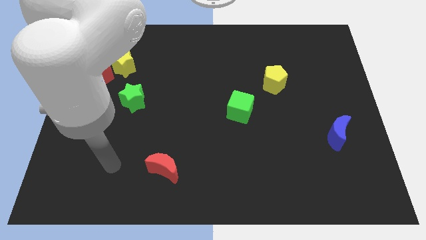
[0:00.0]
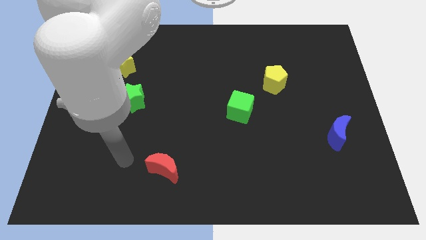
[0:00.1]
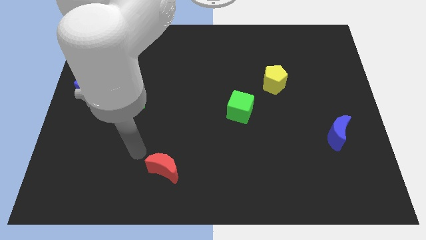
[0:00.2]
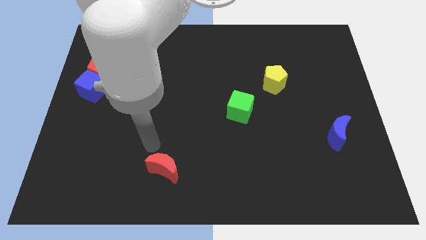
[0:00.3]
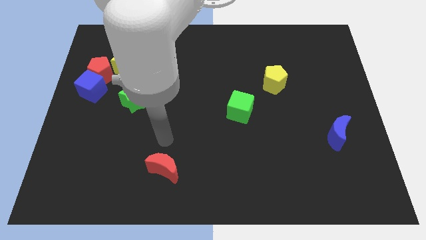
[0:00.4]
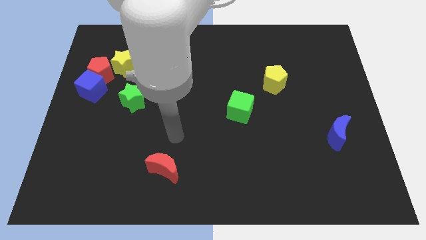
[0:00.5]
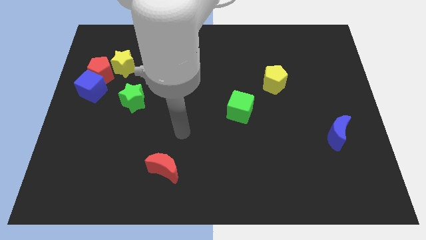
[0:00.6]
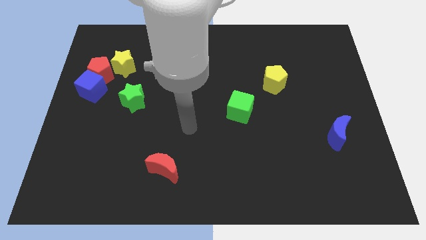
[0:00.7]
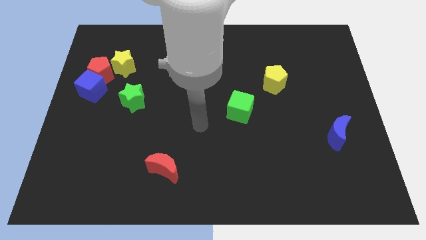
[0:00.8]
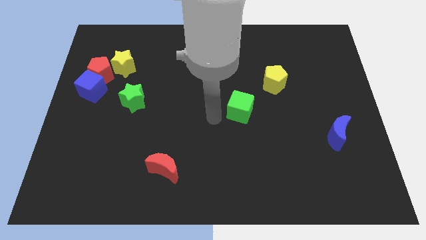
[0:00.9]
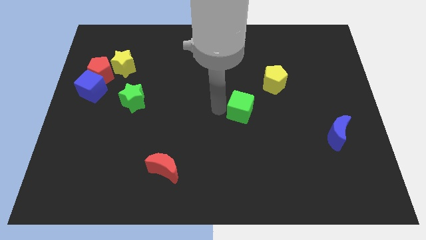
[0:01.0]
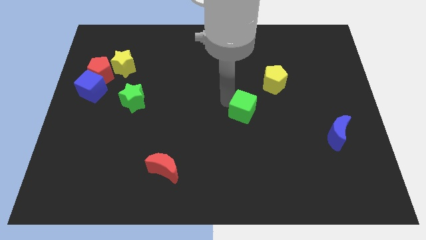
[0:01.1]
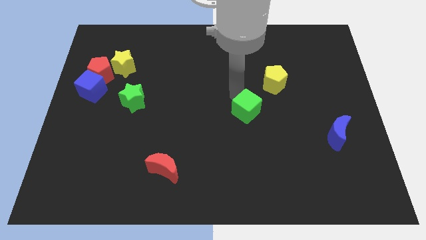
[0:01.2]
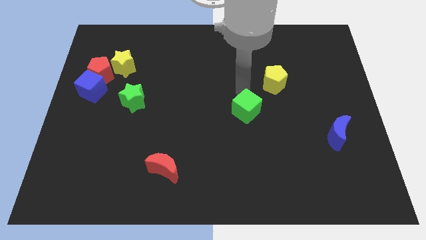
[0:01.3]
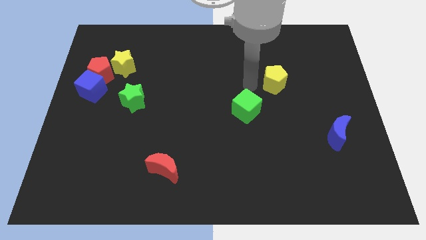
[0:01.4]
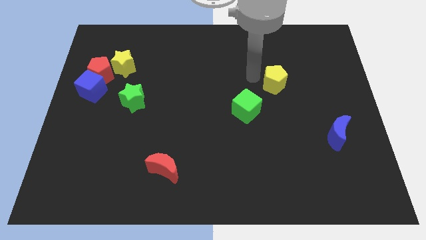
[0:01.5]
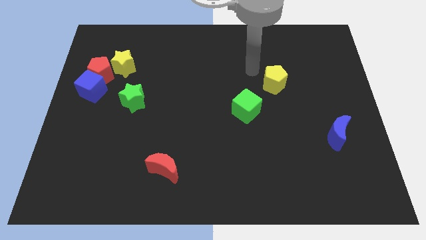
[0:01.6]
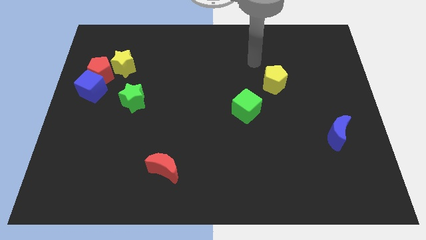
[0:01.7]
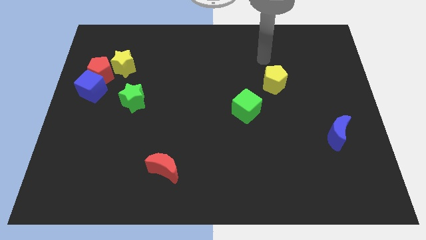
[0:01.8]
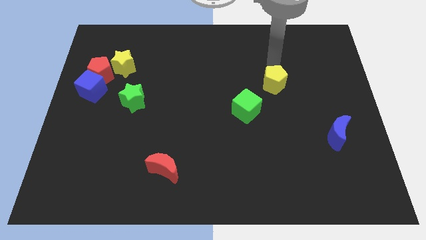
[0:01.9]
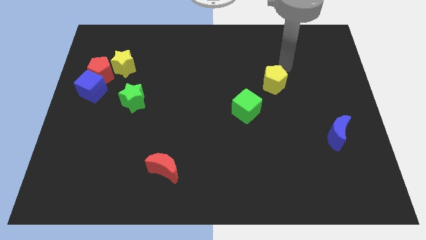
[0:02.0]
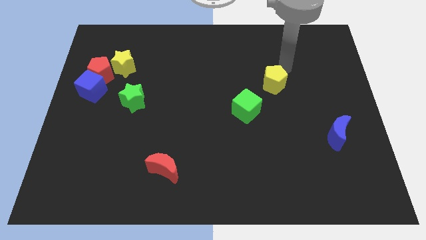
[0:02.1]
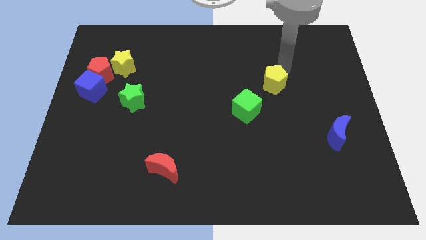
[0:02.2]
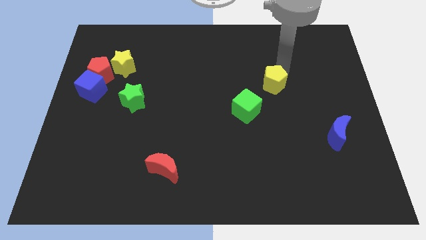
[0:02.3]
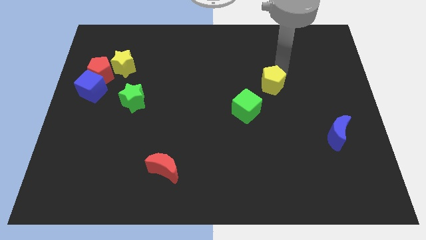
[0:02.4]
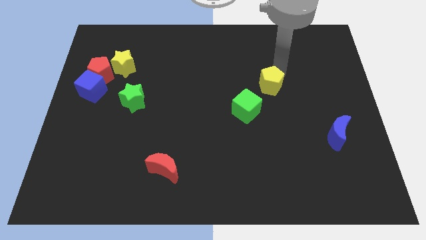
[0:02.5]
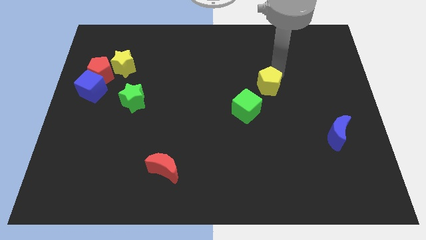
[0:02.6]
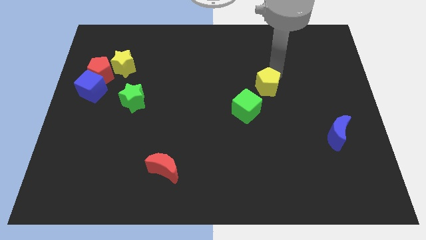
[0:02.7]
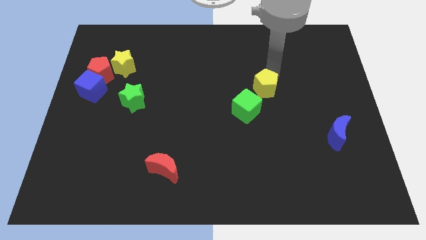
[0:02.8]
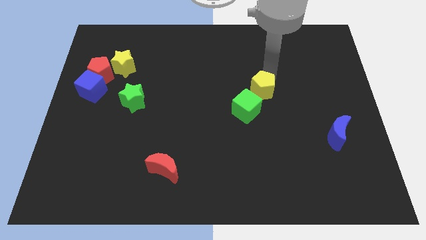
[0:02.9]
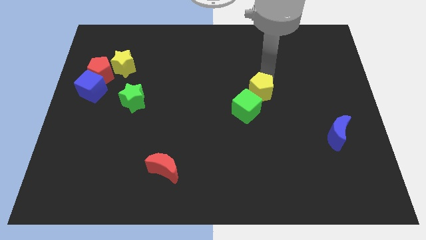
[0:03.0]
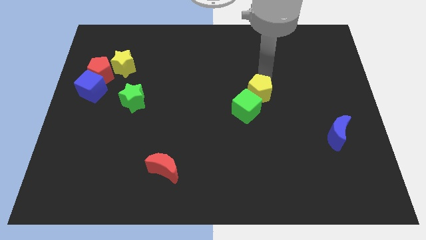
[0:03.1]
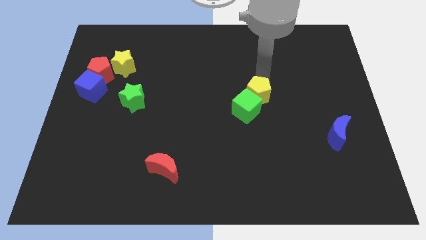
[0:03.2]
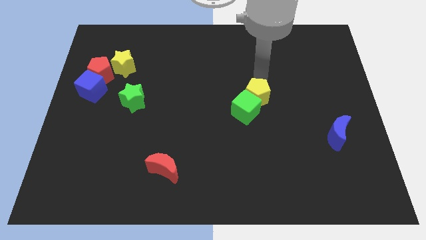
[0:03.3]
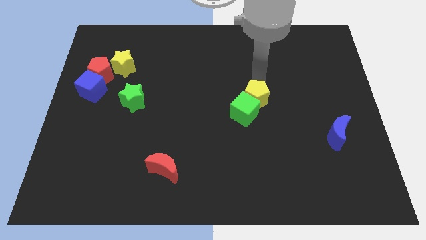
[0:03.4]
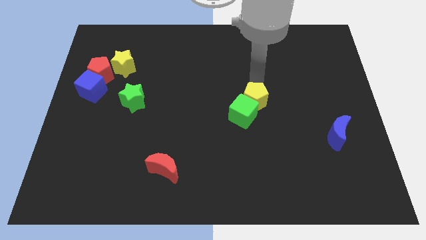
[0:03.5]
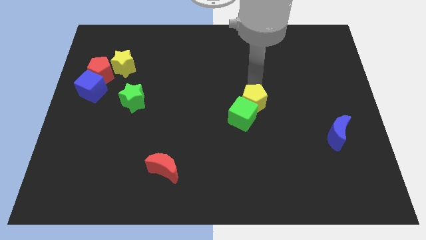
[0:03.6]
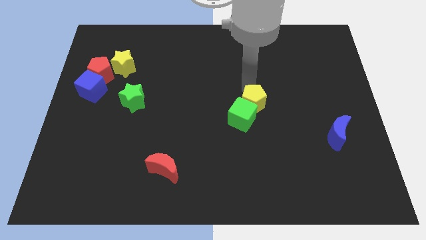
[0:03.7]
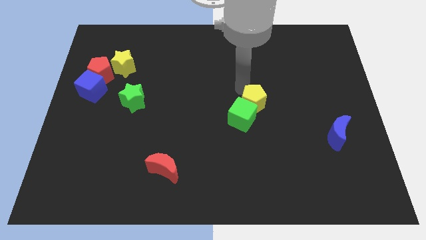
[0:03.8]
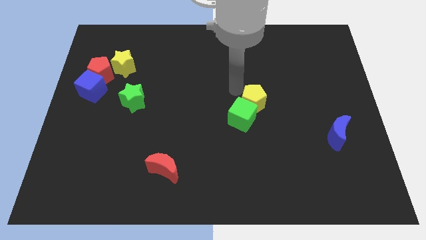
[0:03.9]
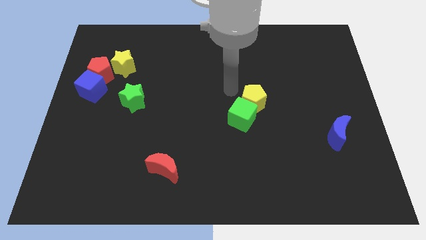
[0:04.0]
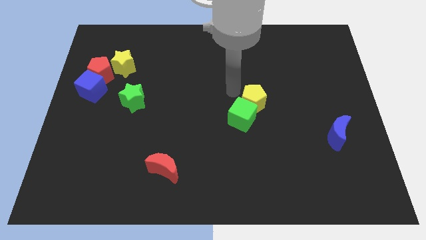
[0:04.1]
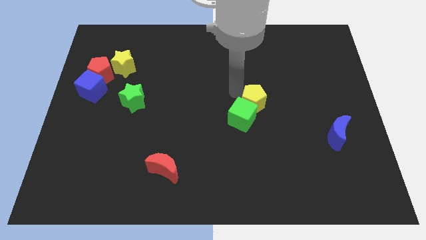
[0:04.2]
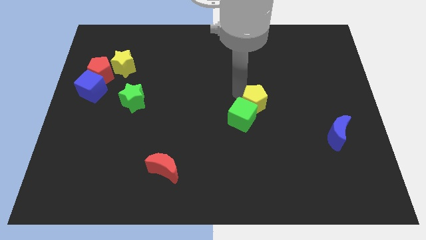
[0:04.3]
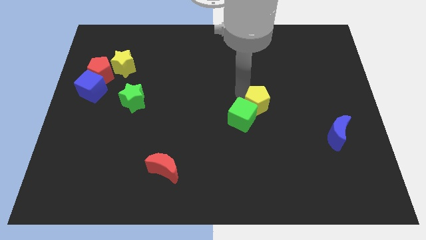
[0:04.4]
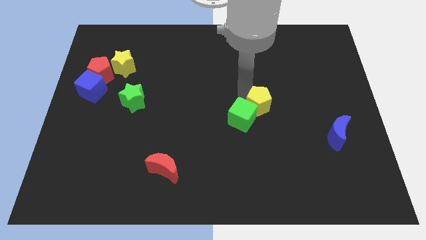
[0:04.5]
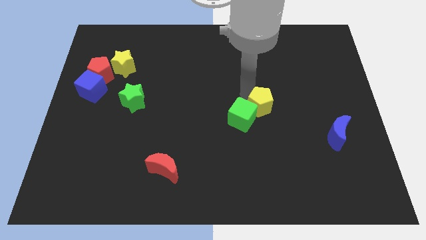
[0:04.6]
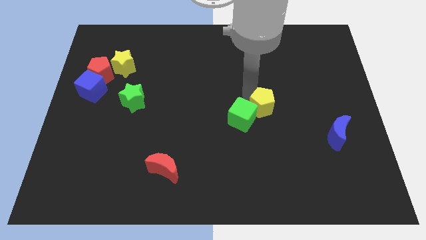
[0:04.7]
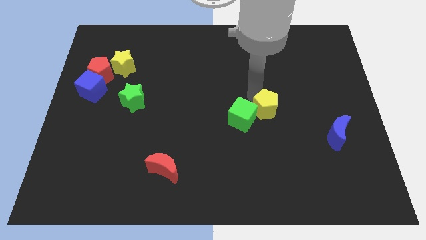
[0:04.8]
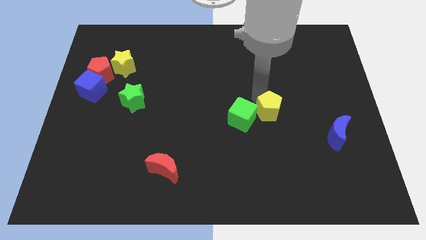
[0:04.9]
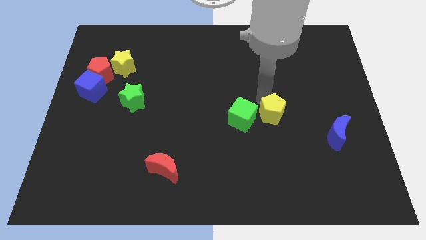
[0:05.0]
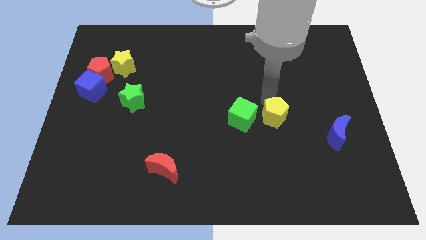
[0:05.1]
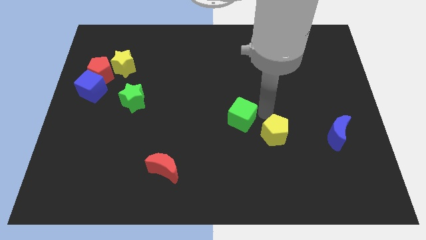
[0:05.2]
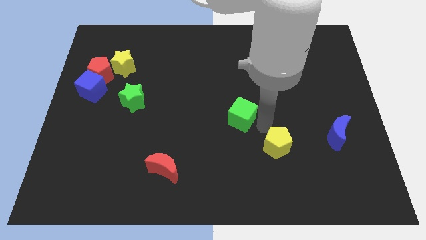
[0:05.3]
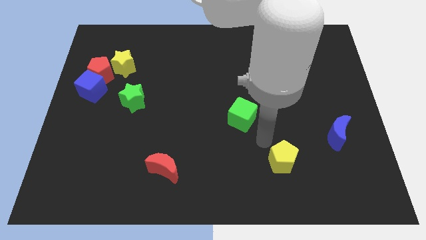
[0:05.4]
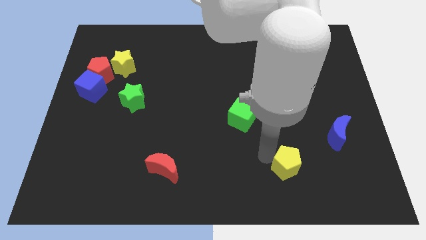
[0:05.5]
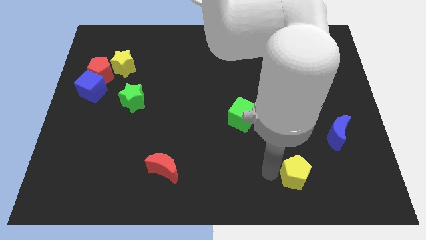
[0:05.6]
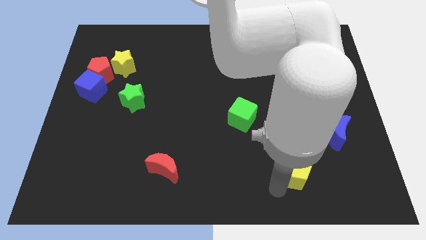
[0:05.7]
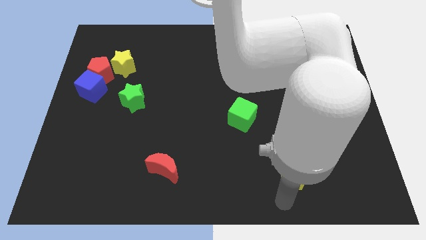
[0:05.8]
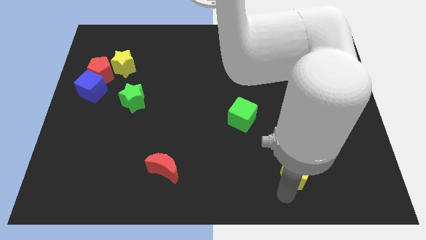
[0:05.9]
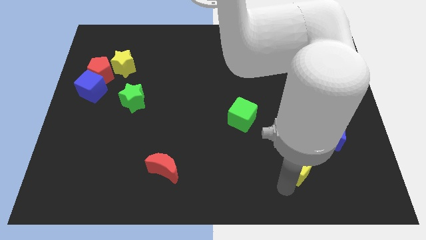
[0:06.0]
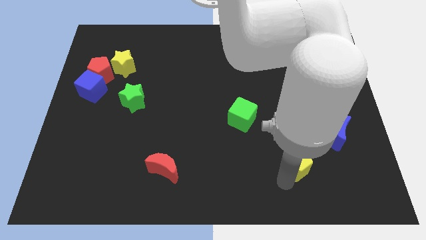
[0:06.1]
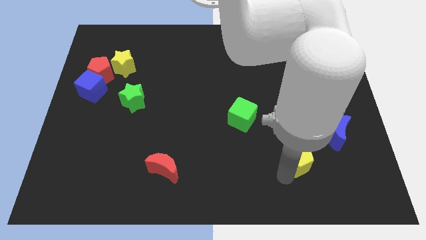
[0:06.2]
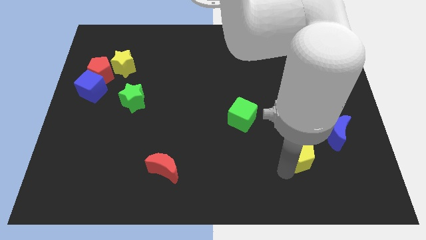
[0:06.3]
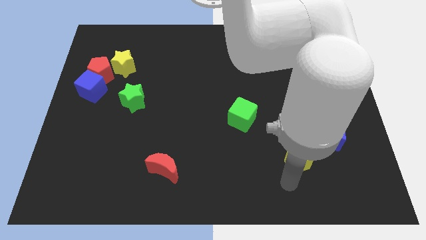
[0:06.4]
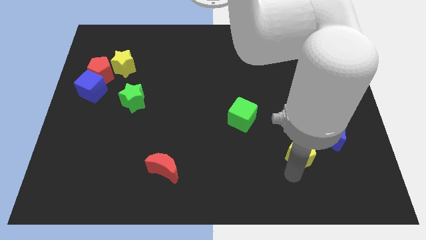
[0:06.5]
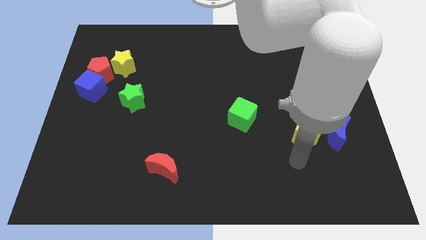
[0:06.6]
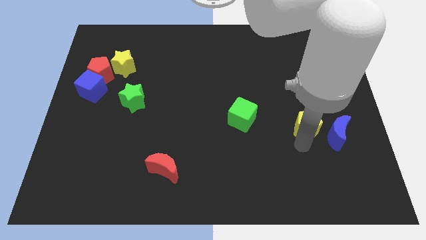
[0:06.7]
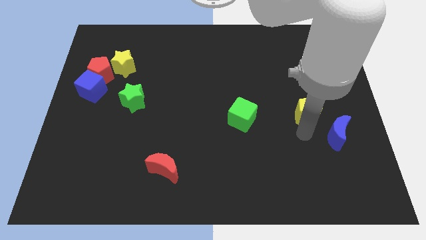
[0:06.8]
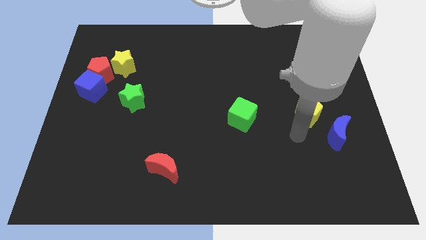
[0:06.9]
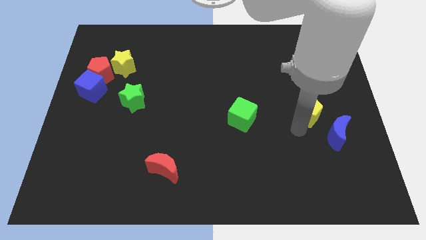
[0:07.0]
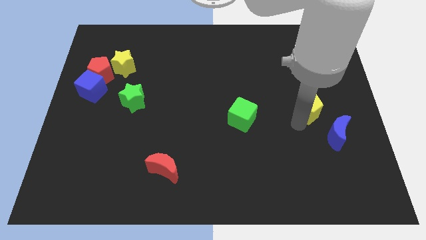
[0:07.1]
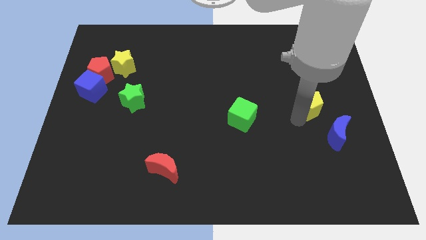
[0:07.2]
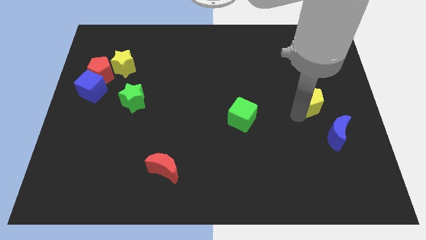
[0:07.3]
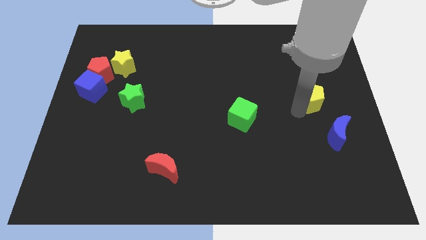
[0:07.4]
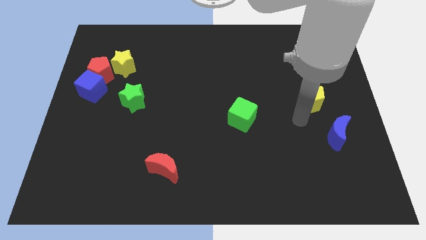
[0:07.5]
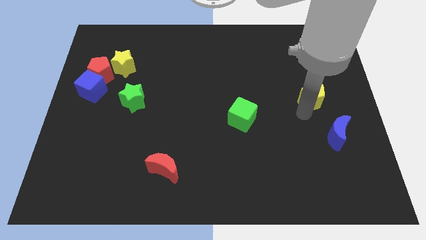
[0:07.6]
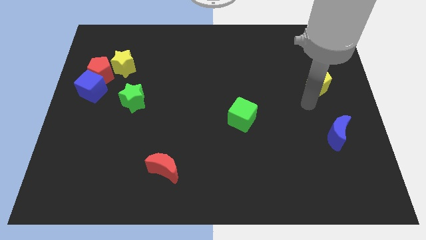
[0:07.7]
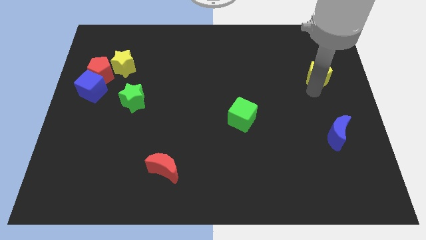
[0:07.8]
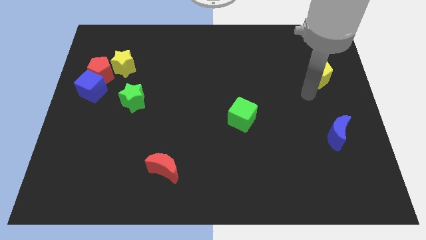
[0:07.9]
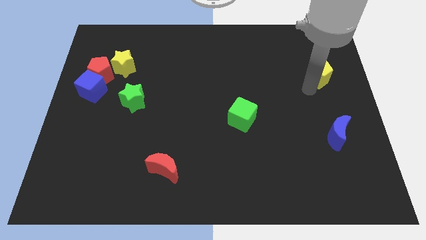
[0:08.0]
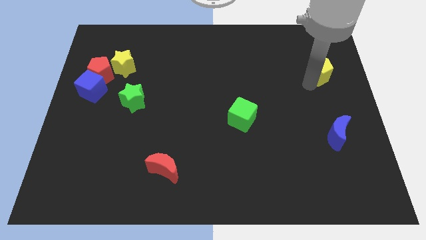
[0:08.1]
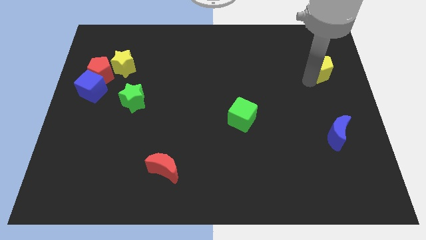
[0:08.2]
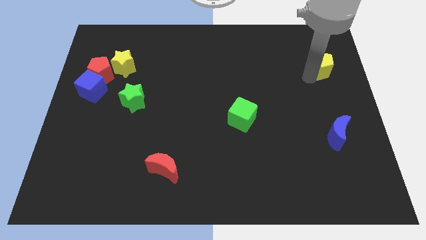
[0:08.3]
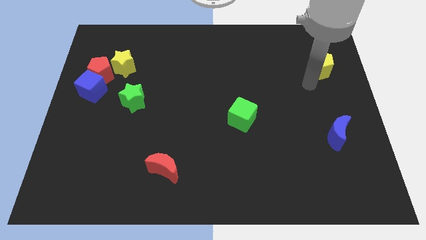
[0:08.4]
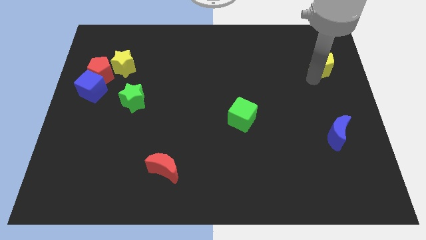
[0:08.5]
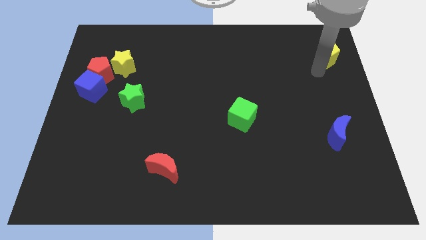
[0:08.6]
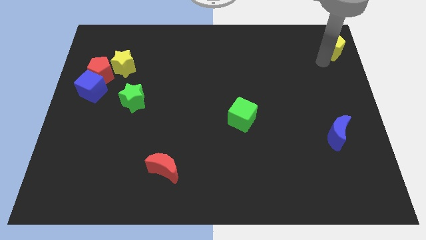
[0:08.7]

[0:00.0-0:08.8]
put the yellow pentagon to the top right corner
